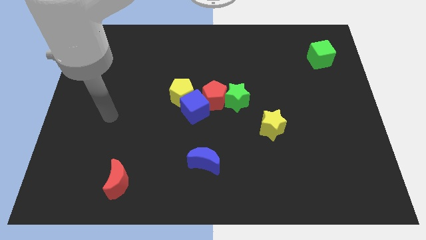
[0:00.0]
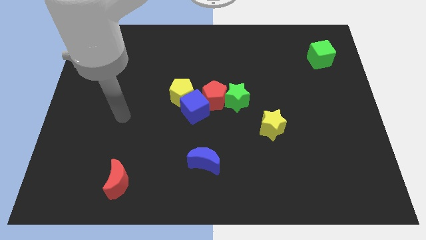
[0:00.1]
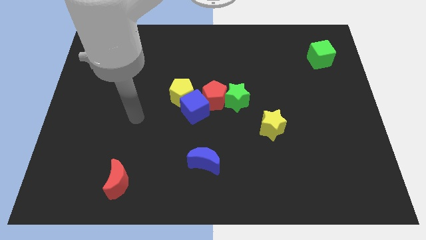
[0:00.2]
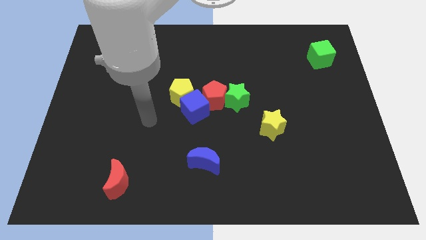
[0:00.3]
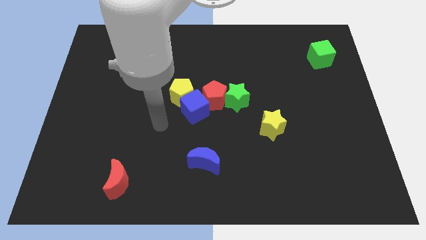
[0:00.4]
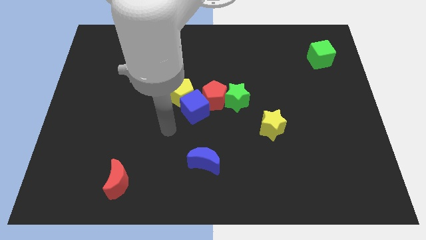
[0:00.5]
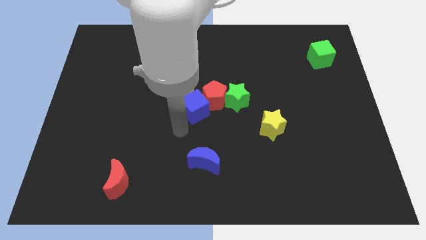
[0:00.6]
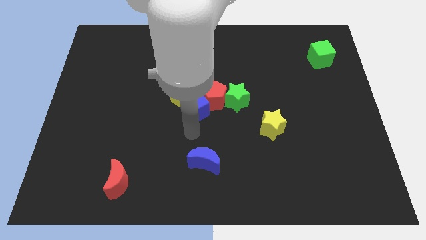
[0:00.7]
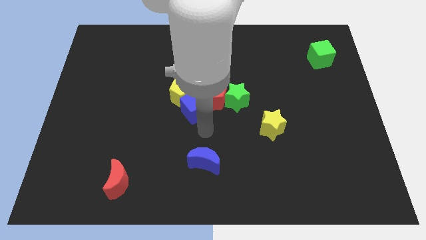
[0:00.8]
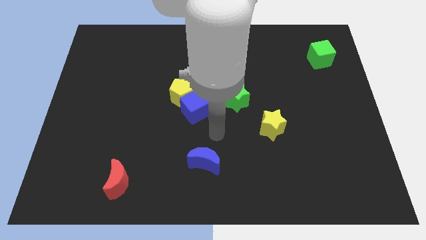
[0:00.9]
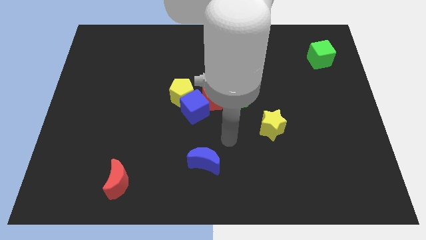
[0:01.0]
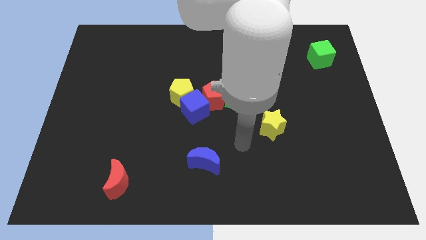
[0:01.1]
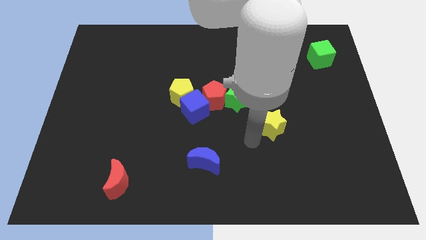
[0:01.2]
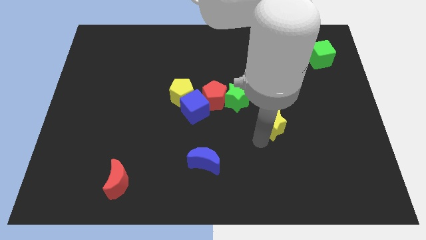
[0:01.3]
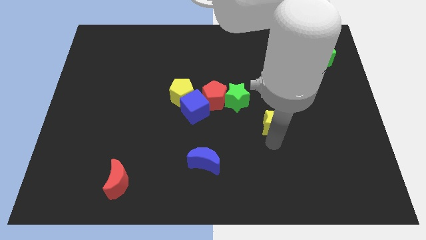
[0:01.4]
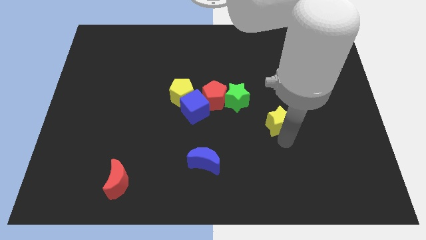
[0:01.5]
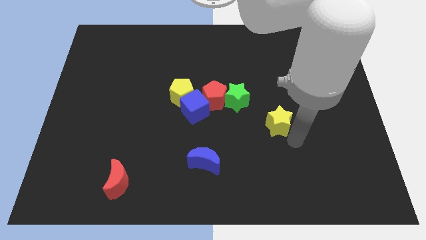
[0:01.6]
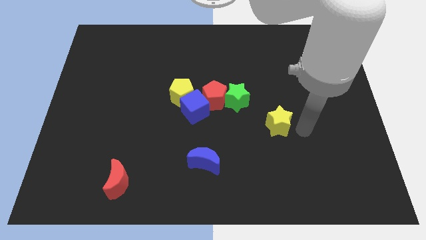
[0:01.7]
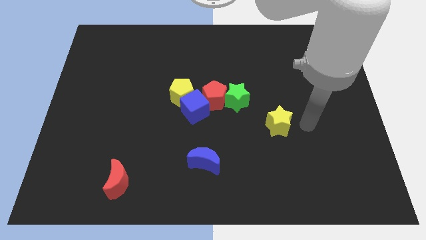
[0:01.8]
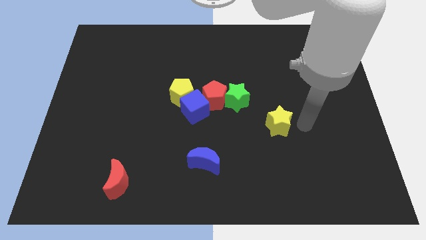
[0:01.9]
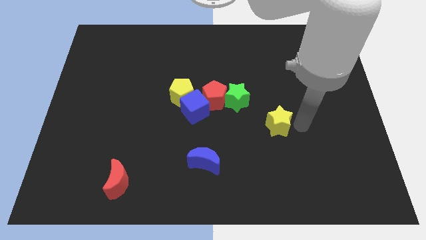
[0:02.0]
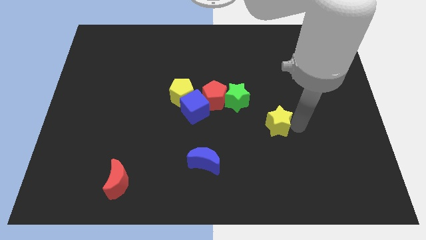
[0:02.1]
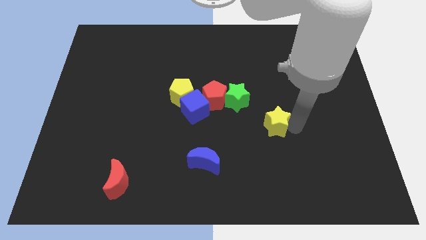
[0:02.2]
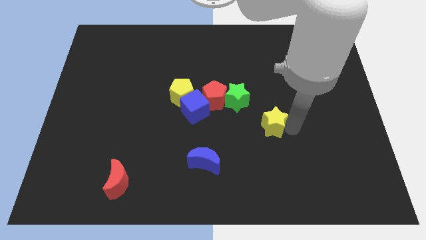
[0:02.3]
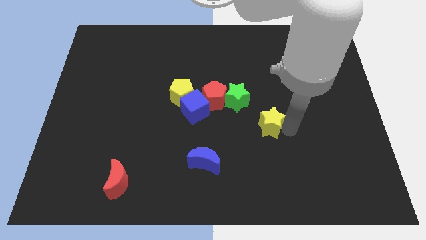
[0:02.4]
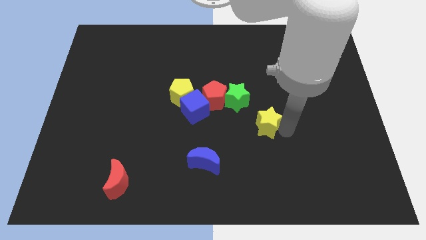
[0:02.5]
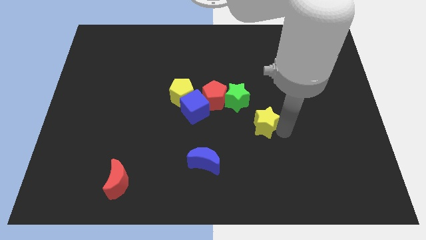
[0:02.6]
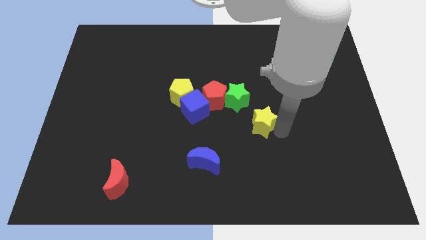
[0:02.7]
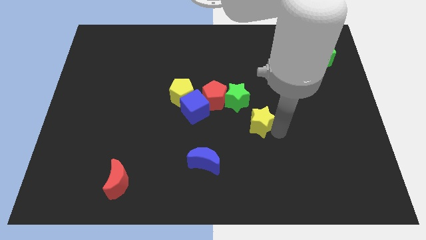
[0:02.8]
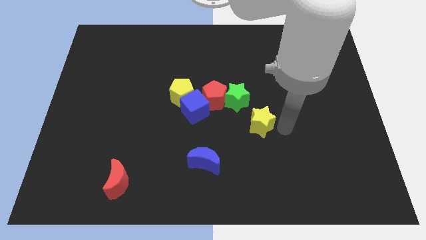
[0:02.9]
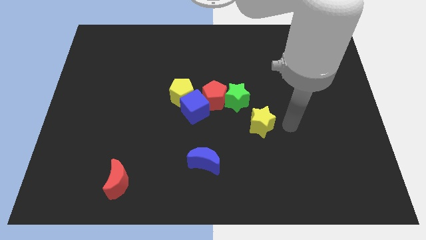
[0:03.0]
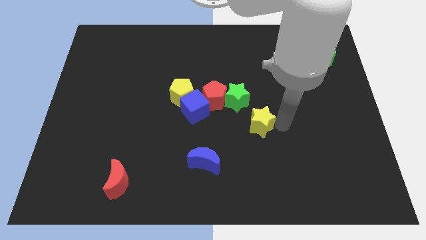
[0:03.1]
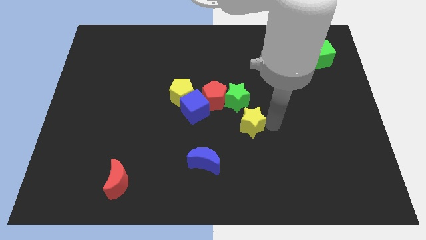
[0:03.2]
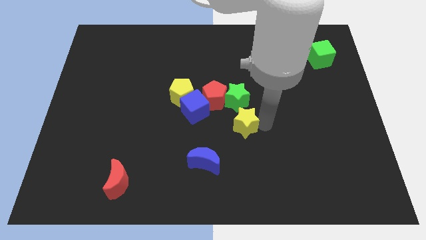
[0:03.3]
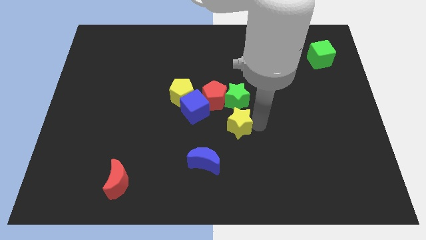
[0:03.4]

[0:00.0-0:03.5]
slide the yellow star left a little

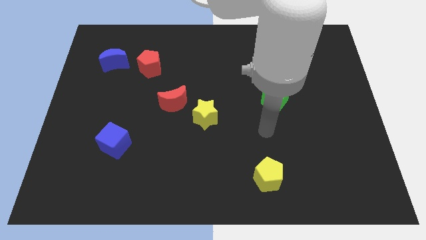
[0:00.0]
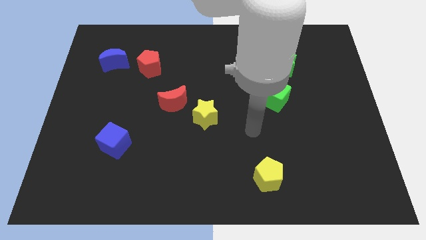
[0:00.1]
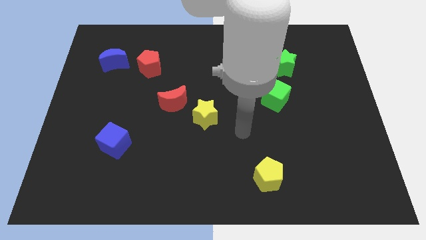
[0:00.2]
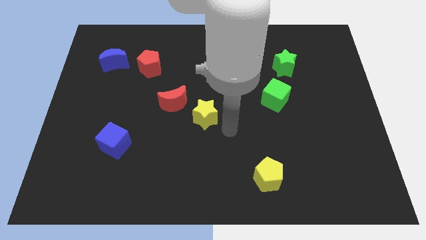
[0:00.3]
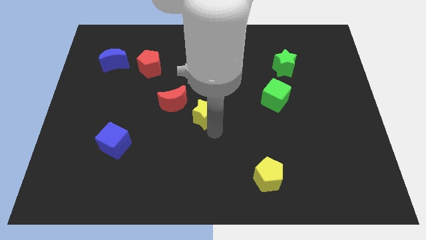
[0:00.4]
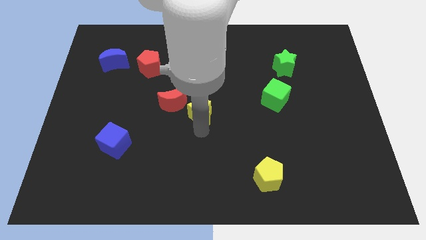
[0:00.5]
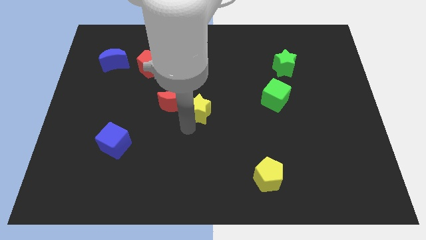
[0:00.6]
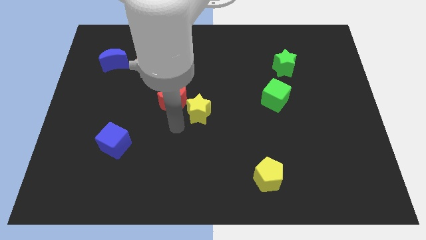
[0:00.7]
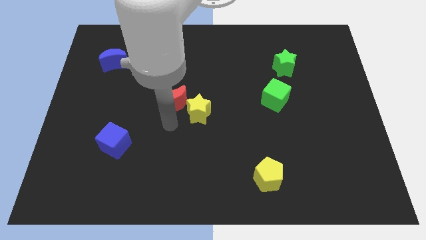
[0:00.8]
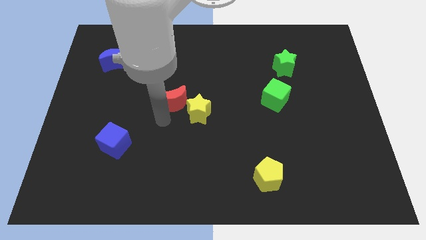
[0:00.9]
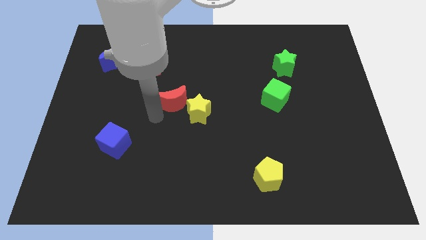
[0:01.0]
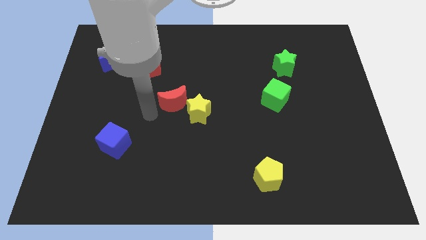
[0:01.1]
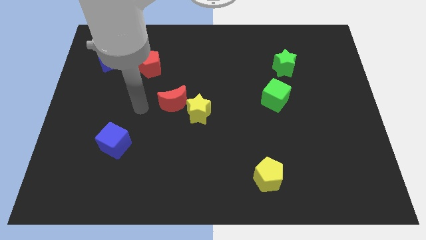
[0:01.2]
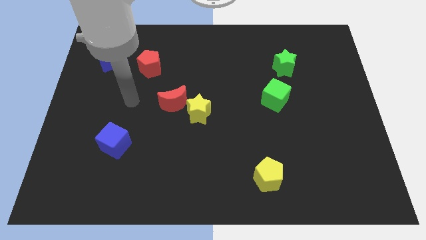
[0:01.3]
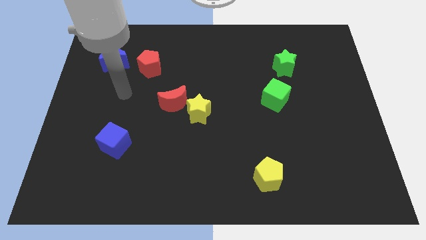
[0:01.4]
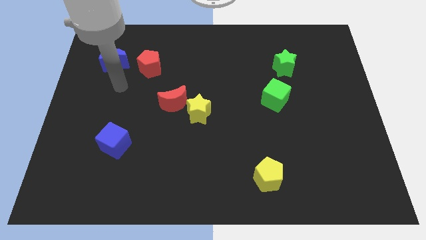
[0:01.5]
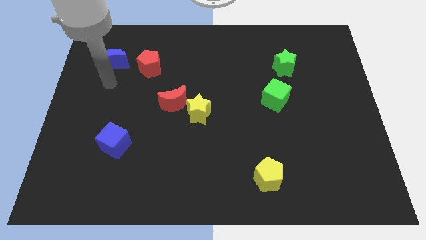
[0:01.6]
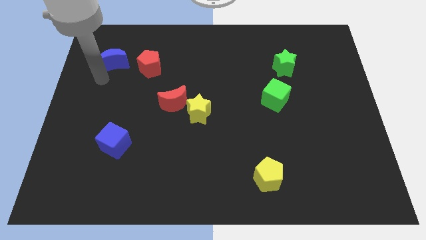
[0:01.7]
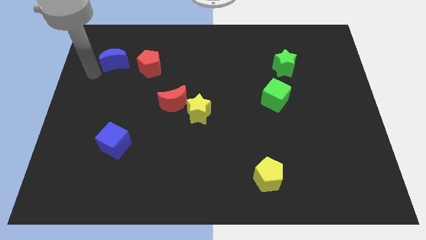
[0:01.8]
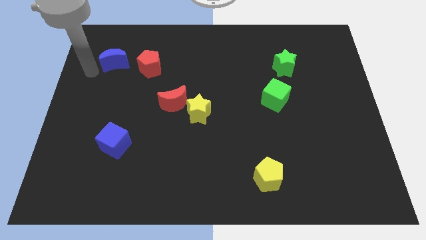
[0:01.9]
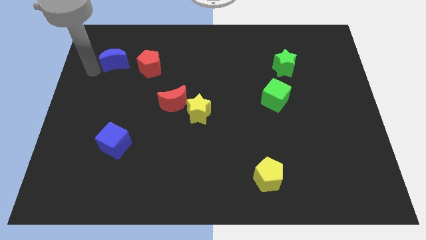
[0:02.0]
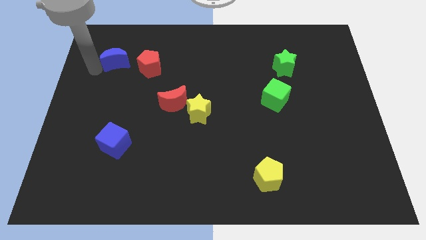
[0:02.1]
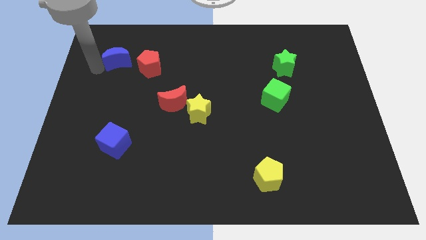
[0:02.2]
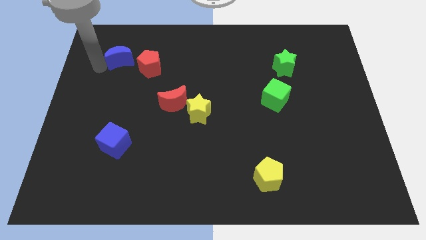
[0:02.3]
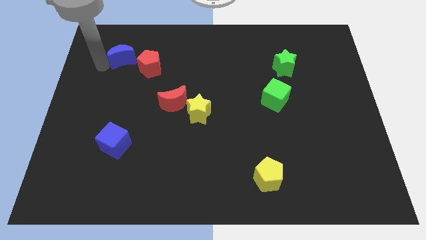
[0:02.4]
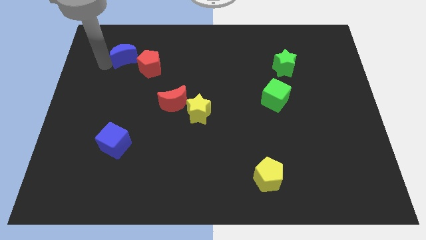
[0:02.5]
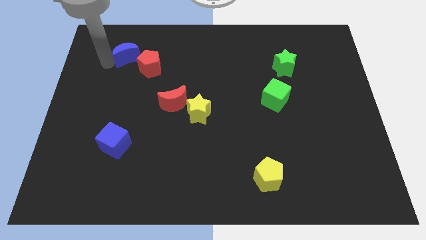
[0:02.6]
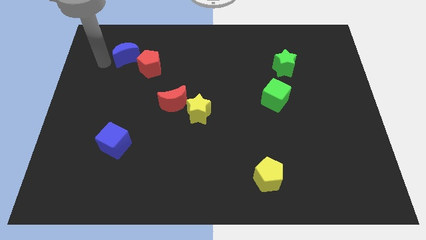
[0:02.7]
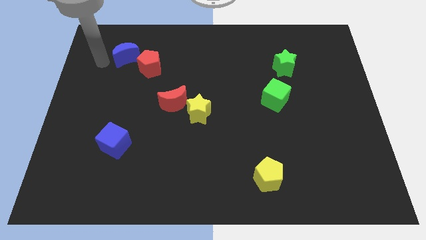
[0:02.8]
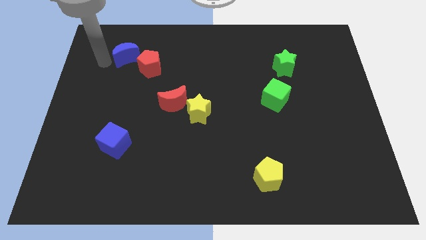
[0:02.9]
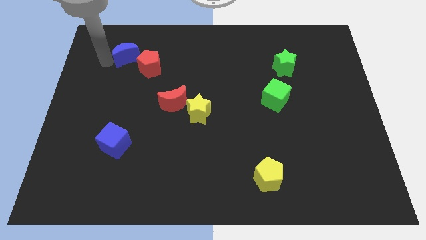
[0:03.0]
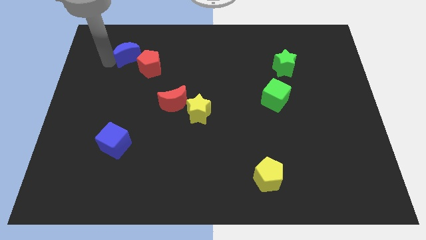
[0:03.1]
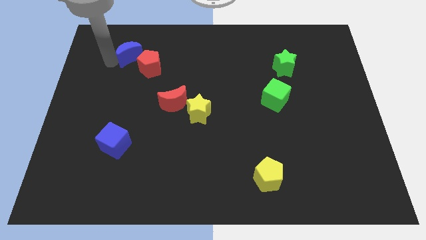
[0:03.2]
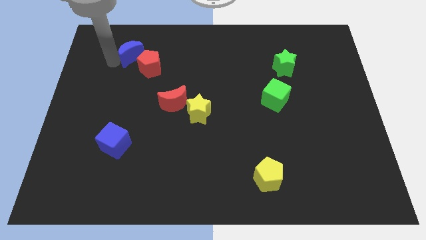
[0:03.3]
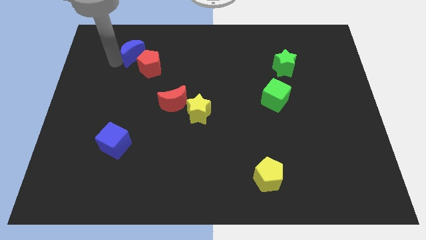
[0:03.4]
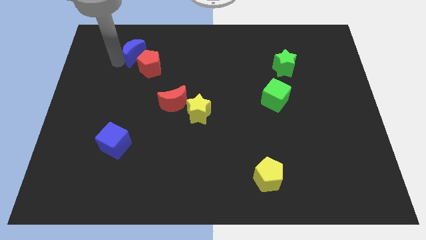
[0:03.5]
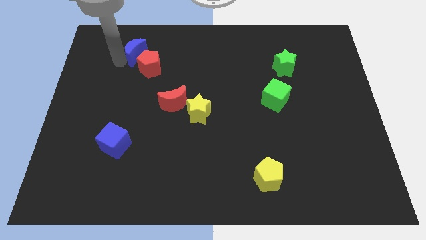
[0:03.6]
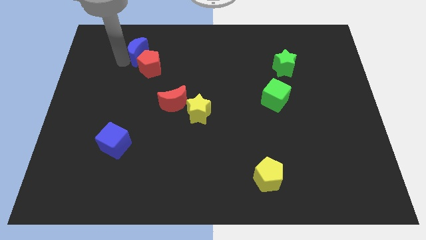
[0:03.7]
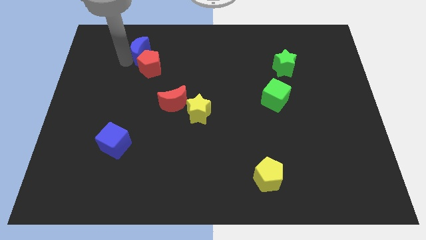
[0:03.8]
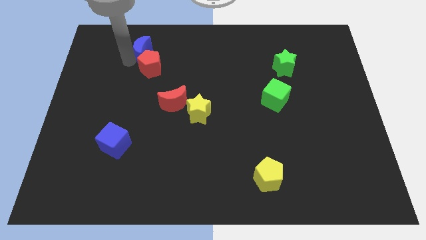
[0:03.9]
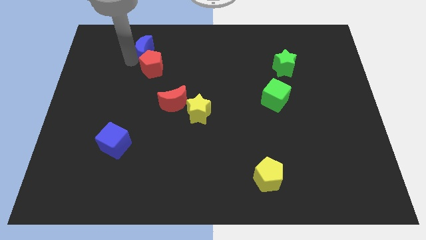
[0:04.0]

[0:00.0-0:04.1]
push the blue moon right a bit
